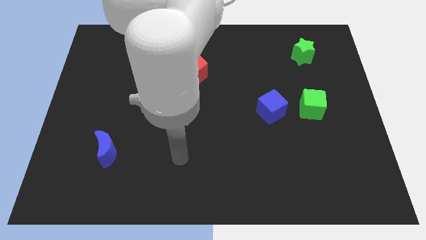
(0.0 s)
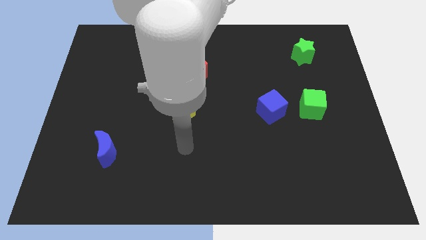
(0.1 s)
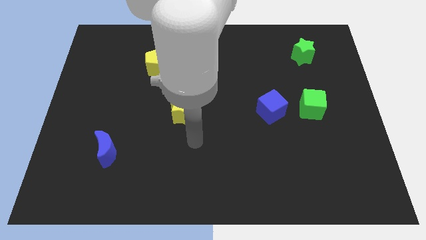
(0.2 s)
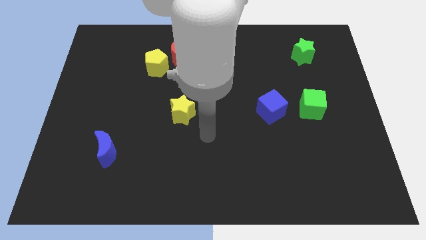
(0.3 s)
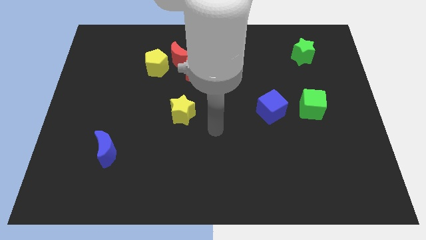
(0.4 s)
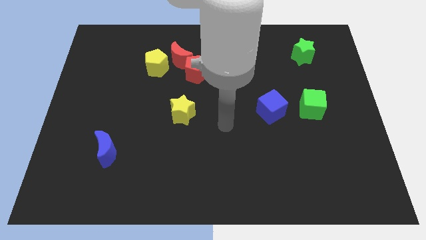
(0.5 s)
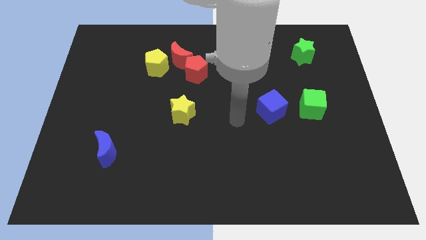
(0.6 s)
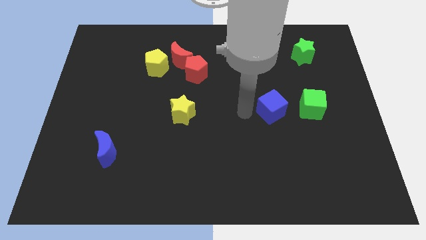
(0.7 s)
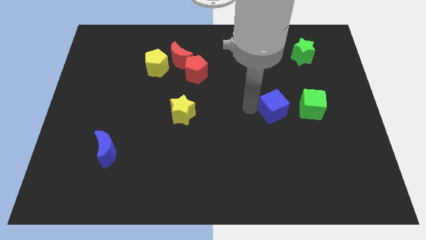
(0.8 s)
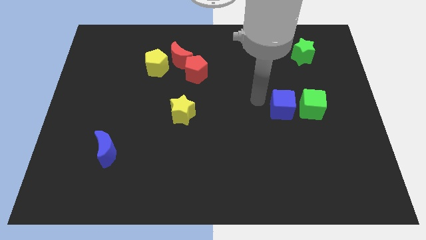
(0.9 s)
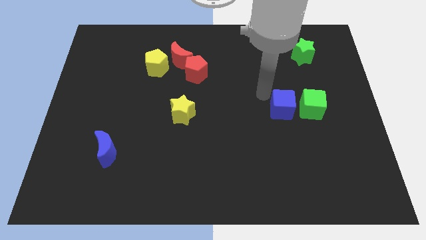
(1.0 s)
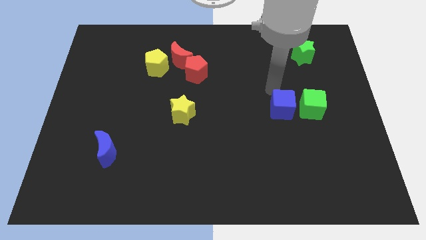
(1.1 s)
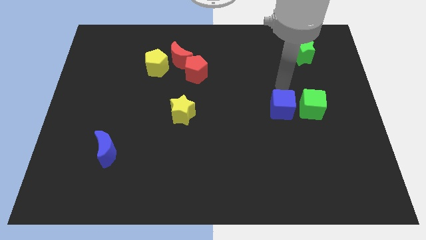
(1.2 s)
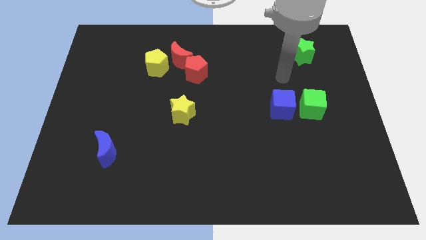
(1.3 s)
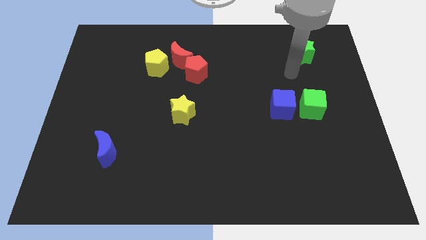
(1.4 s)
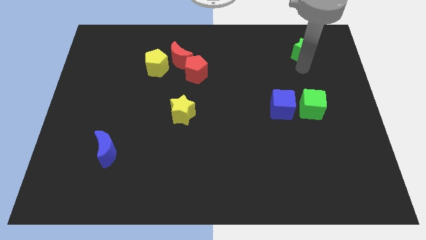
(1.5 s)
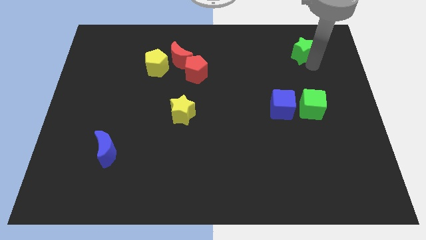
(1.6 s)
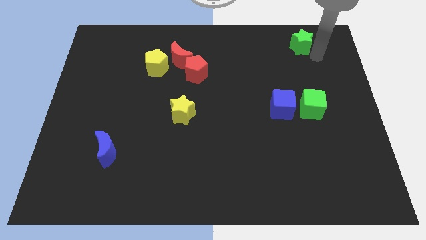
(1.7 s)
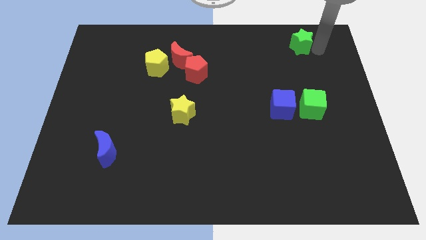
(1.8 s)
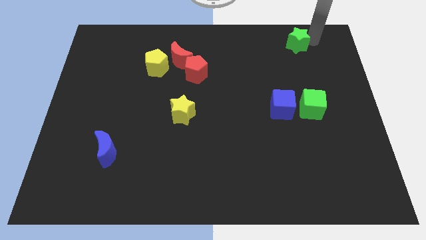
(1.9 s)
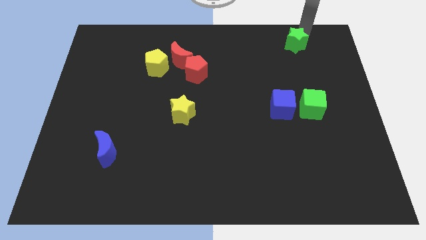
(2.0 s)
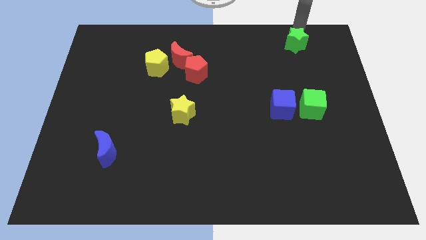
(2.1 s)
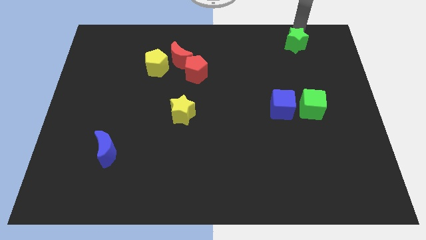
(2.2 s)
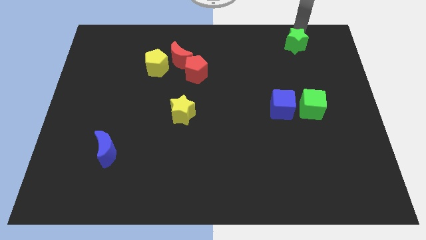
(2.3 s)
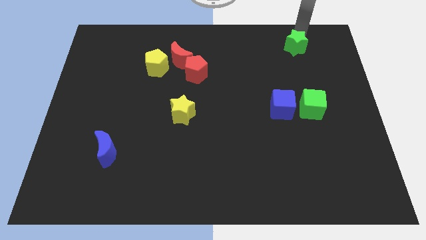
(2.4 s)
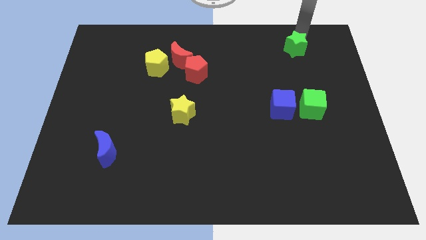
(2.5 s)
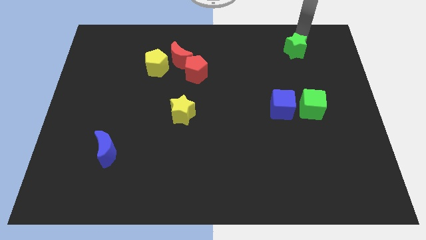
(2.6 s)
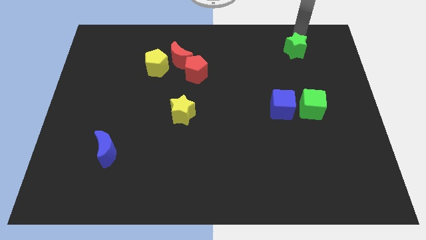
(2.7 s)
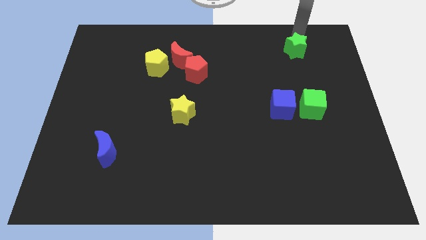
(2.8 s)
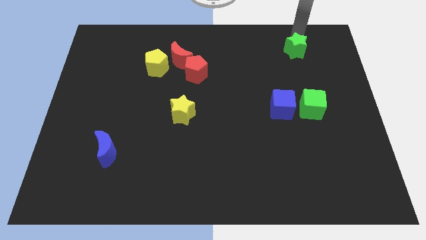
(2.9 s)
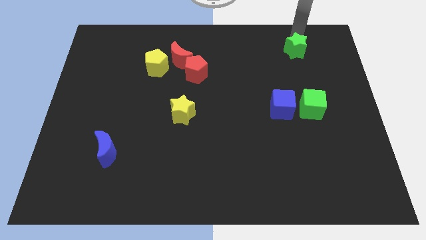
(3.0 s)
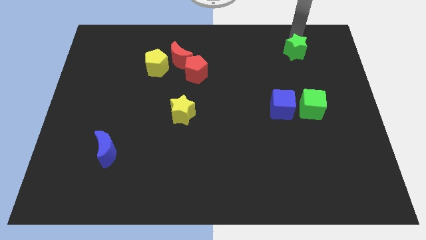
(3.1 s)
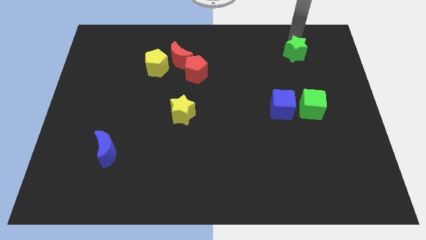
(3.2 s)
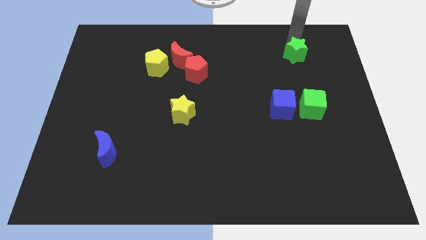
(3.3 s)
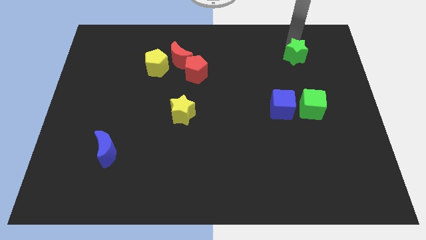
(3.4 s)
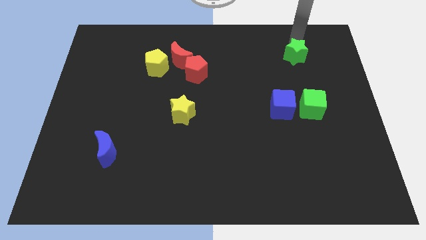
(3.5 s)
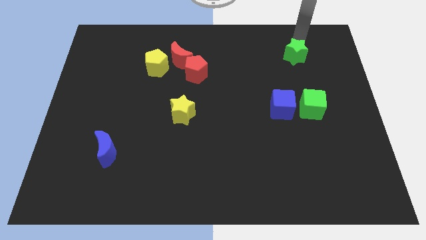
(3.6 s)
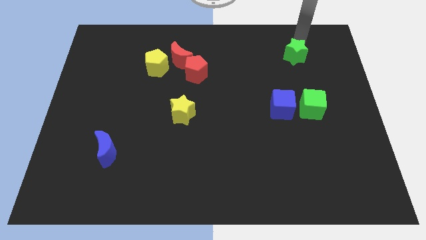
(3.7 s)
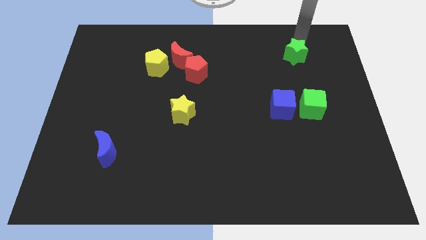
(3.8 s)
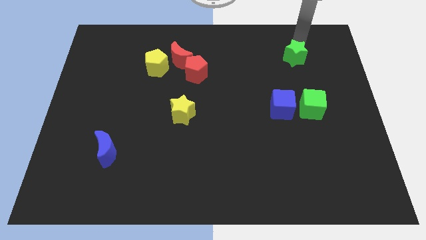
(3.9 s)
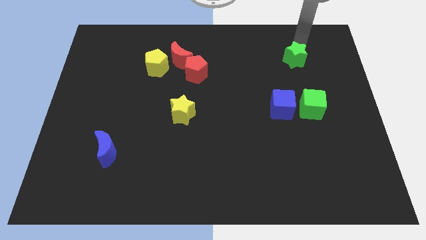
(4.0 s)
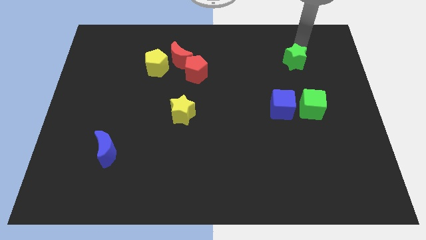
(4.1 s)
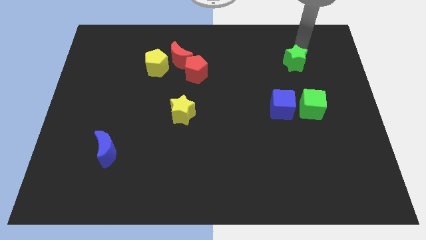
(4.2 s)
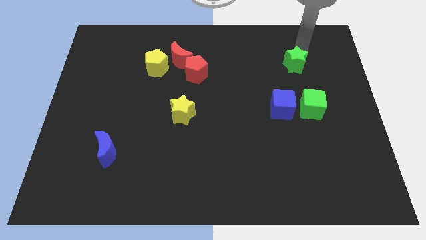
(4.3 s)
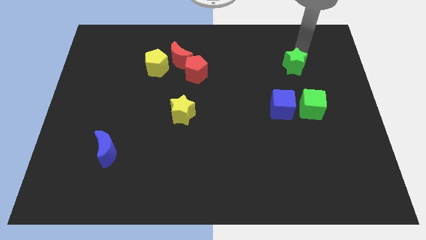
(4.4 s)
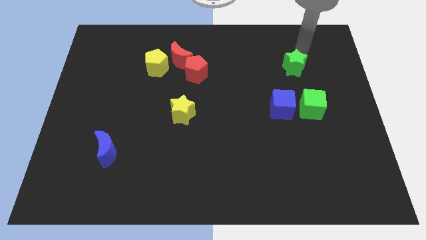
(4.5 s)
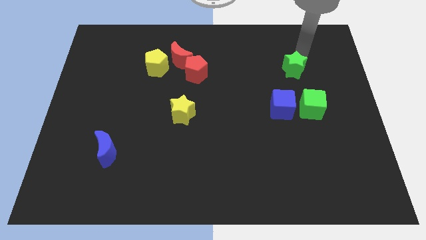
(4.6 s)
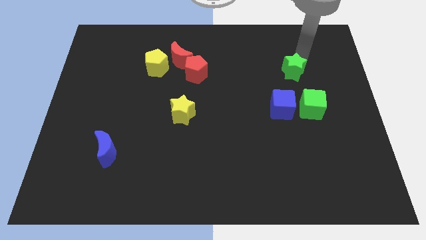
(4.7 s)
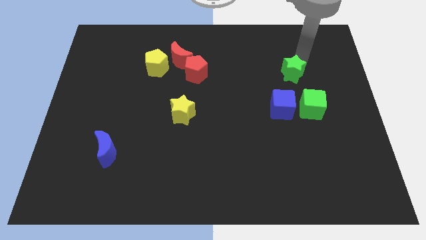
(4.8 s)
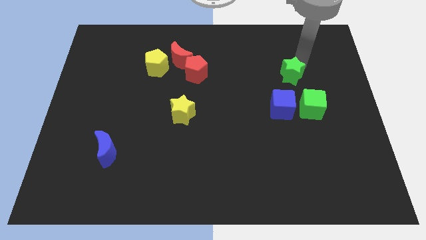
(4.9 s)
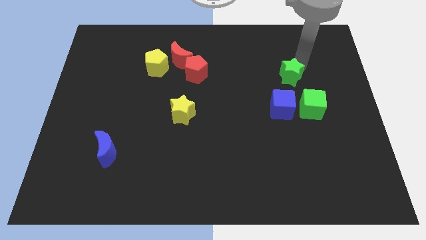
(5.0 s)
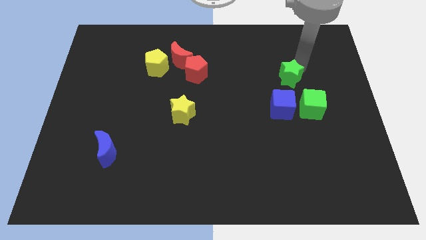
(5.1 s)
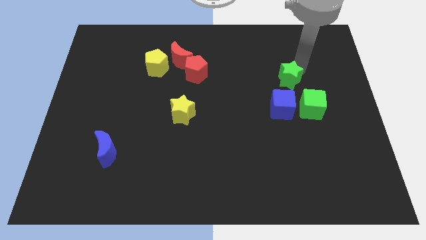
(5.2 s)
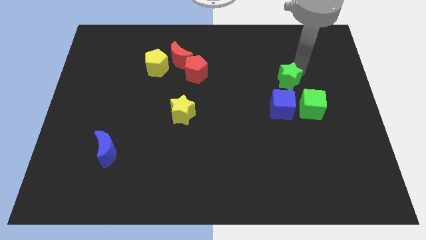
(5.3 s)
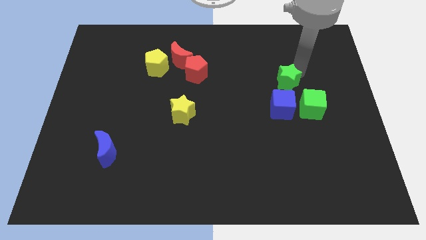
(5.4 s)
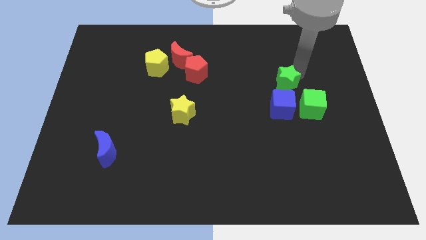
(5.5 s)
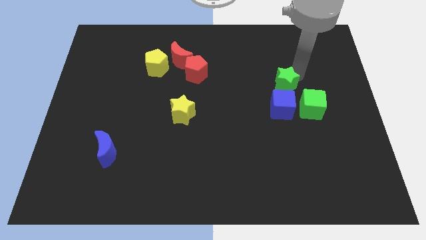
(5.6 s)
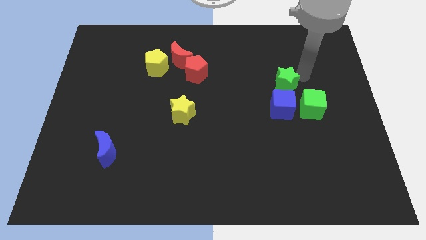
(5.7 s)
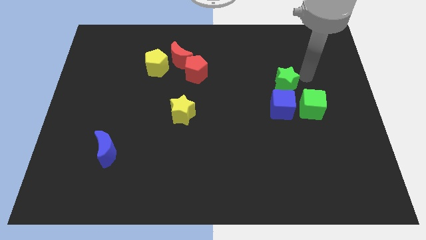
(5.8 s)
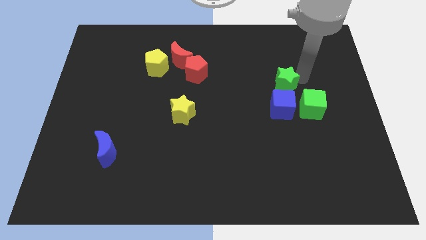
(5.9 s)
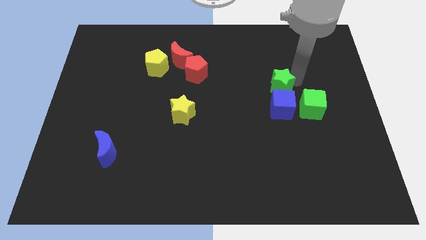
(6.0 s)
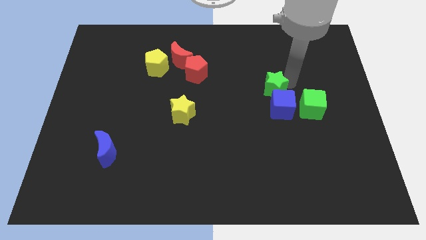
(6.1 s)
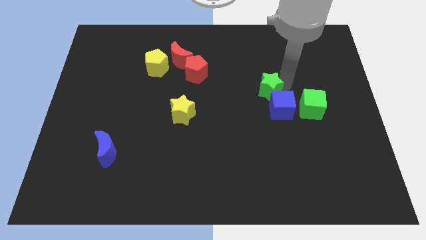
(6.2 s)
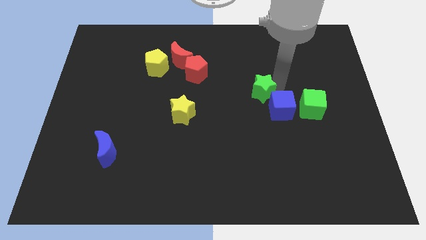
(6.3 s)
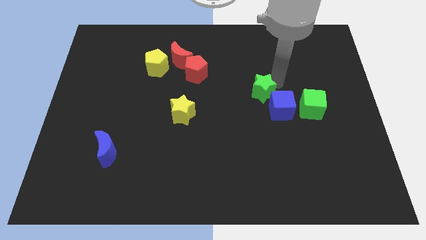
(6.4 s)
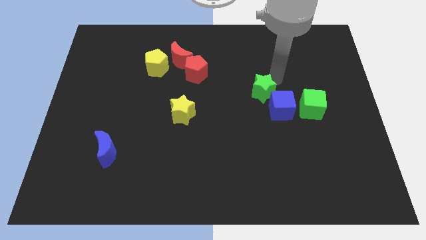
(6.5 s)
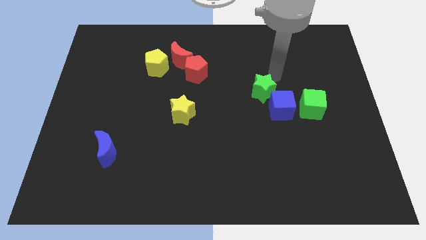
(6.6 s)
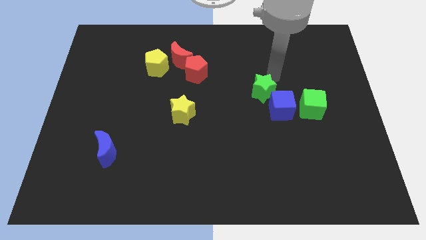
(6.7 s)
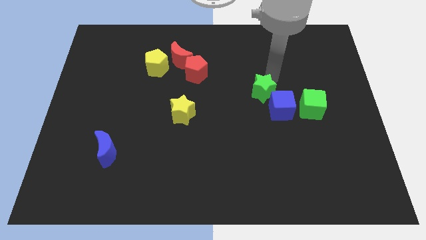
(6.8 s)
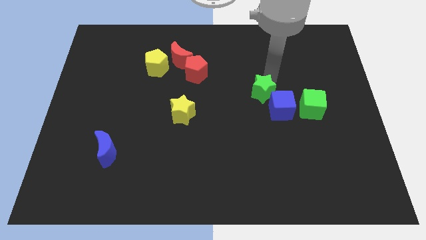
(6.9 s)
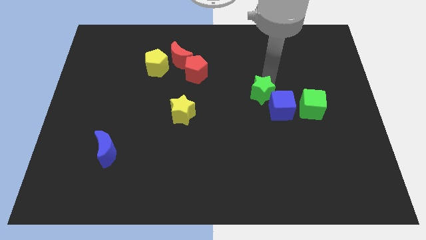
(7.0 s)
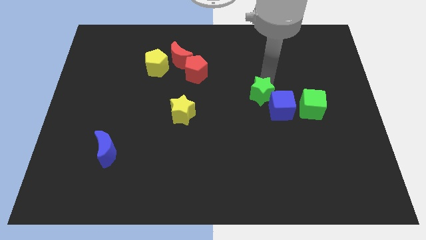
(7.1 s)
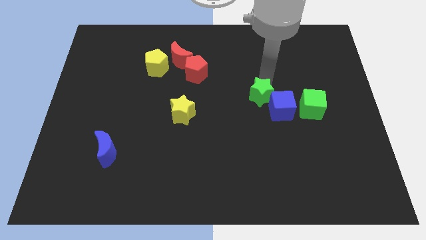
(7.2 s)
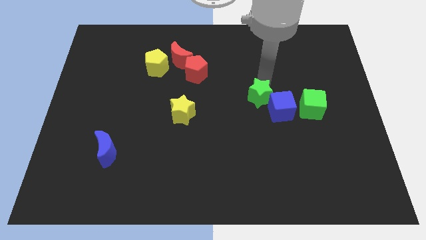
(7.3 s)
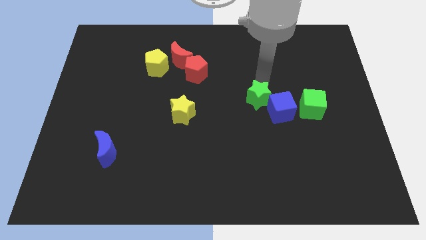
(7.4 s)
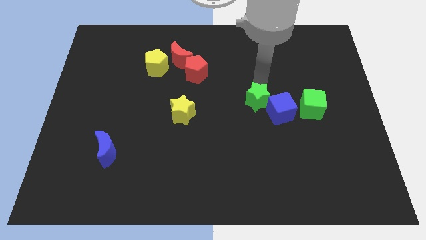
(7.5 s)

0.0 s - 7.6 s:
slide the green star diagonally downwards and to the left
